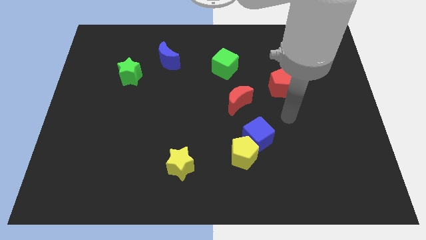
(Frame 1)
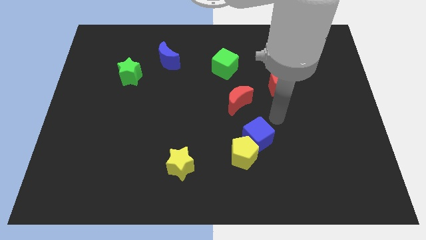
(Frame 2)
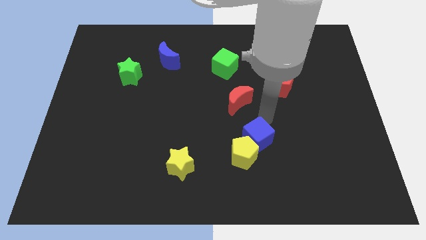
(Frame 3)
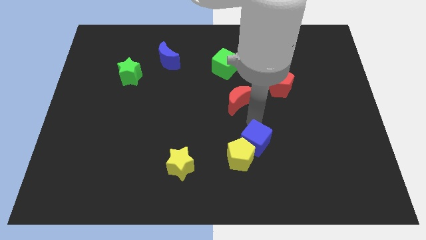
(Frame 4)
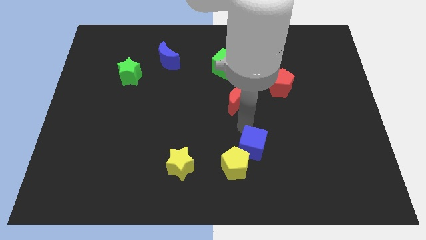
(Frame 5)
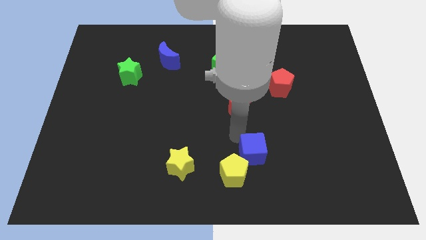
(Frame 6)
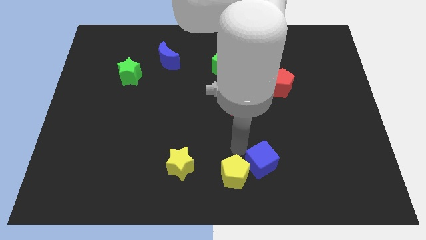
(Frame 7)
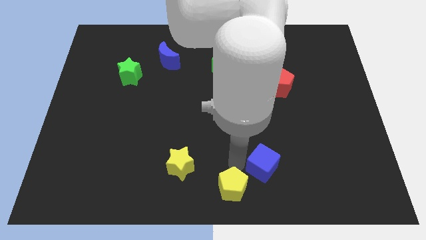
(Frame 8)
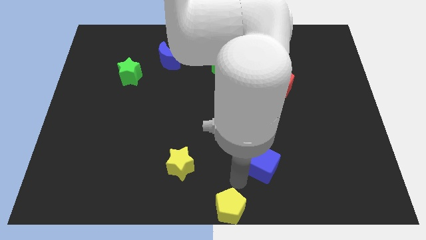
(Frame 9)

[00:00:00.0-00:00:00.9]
move the blue cube away from the yellow pentagon

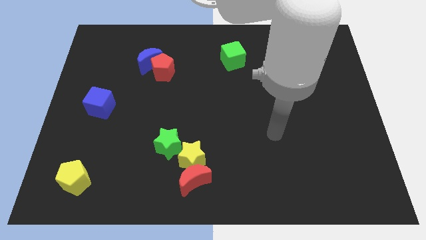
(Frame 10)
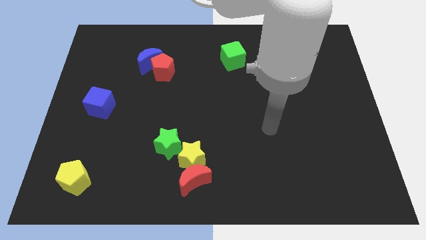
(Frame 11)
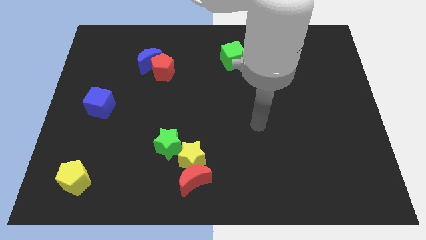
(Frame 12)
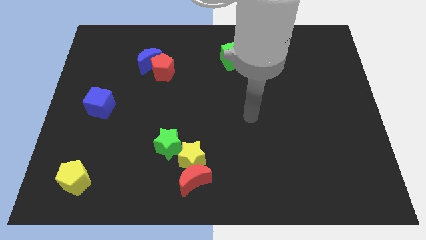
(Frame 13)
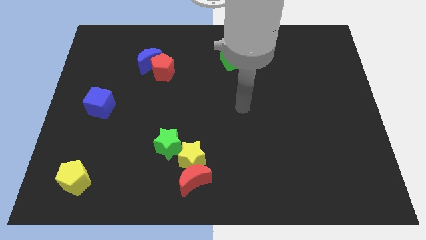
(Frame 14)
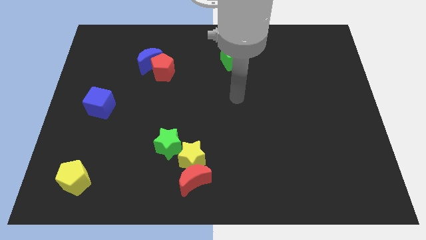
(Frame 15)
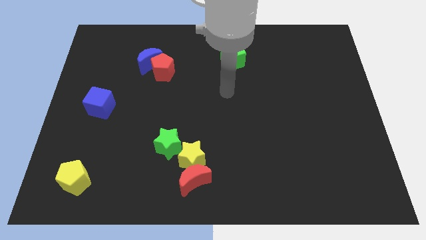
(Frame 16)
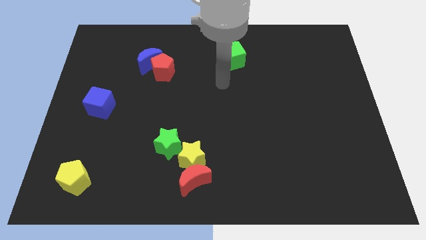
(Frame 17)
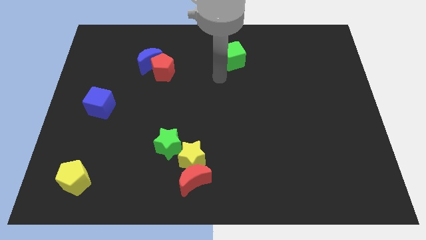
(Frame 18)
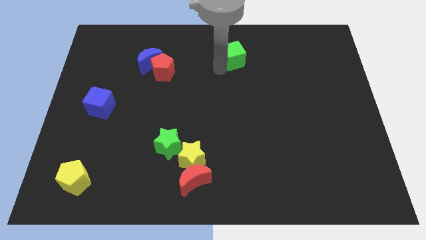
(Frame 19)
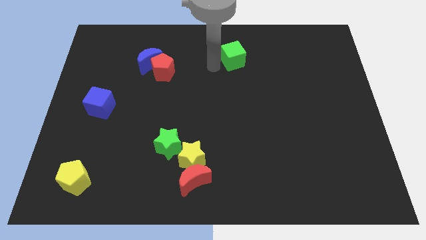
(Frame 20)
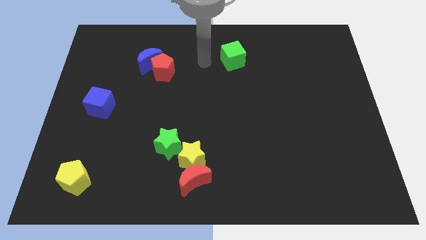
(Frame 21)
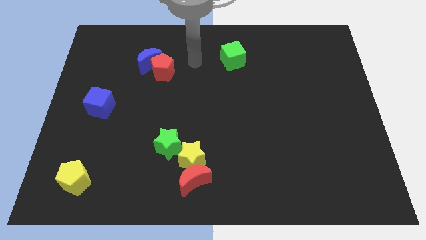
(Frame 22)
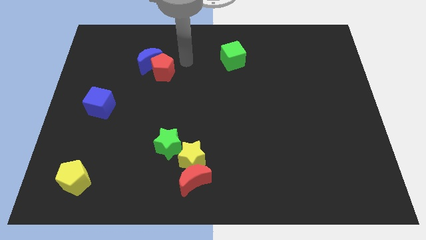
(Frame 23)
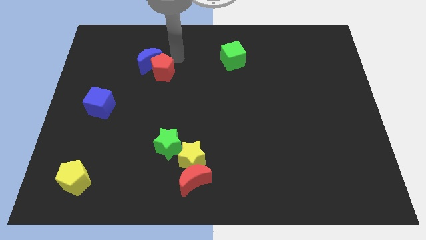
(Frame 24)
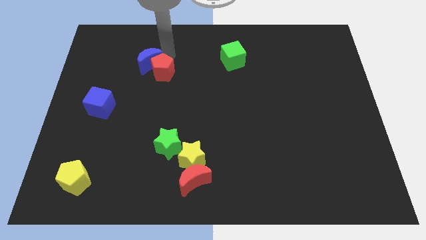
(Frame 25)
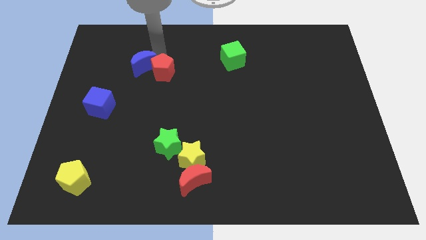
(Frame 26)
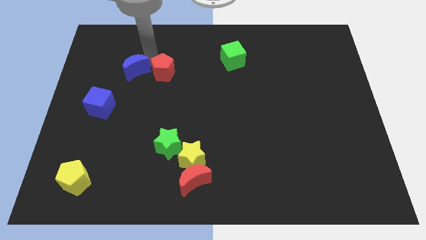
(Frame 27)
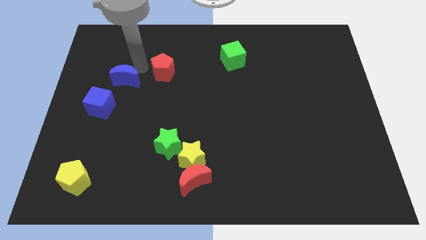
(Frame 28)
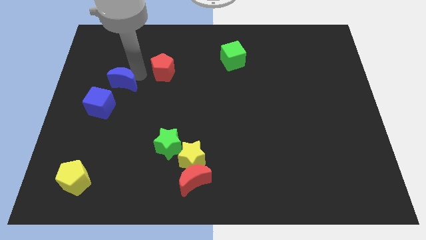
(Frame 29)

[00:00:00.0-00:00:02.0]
pull the red pentagon apart from the blue moon

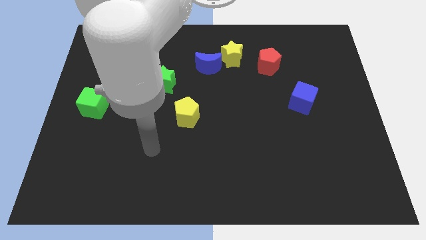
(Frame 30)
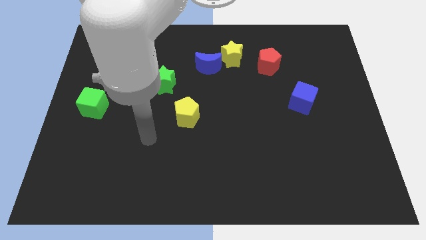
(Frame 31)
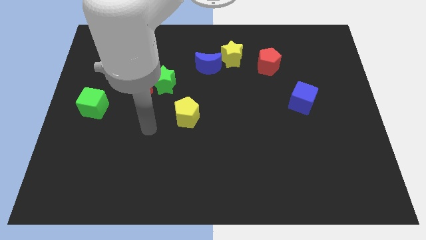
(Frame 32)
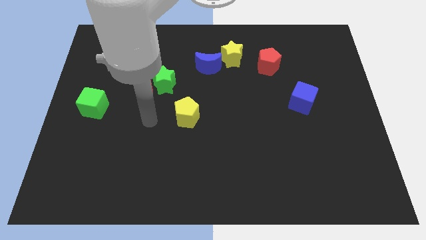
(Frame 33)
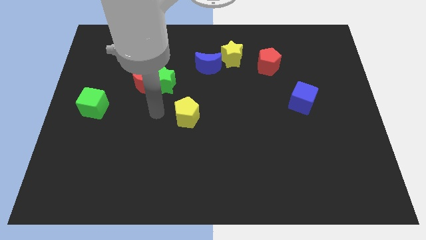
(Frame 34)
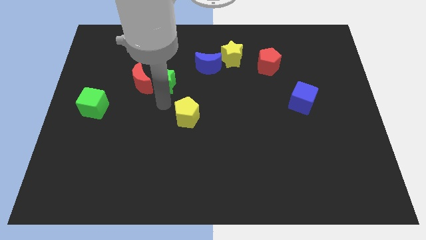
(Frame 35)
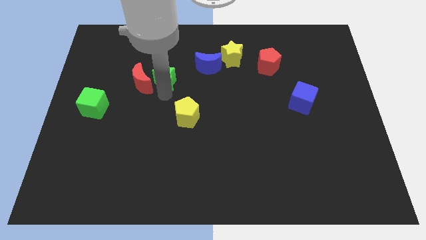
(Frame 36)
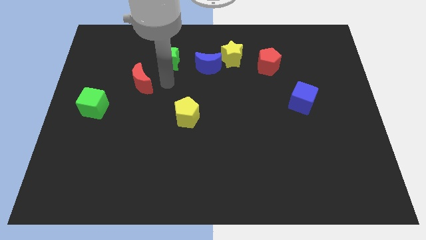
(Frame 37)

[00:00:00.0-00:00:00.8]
move the red moon away from the green star

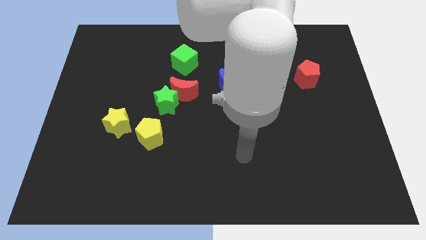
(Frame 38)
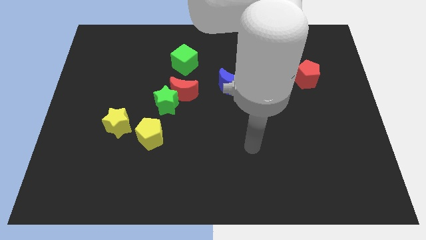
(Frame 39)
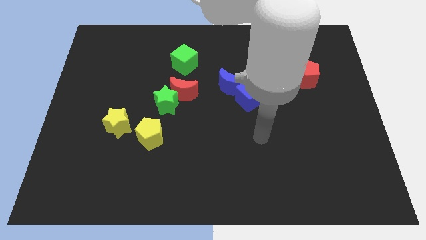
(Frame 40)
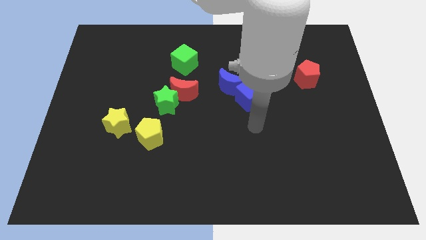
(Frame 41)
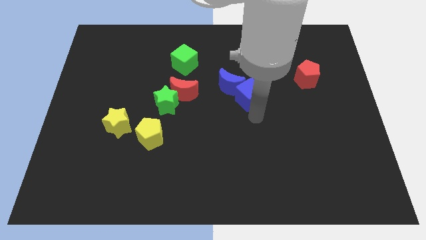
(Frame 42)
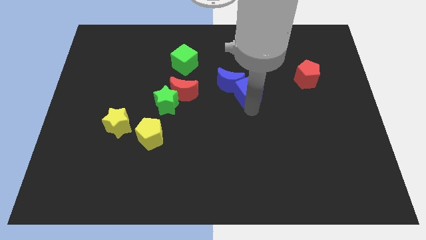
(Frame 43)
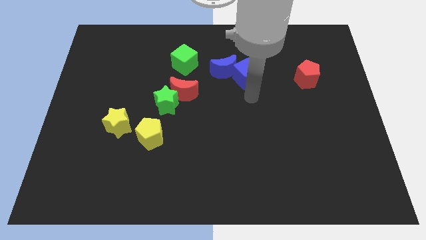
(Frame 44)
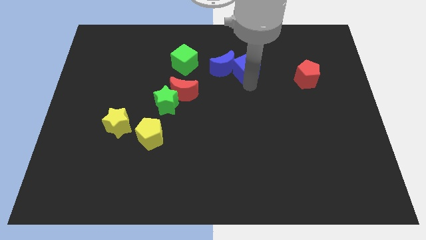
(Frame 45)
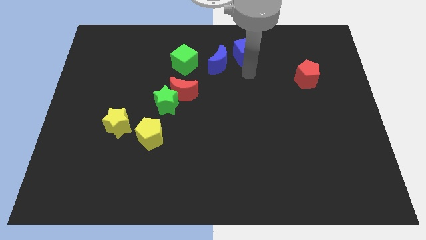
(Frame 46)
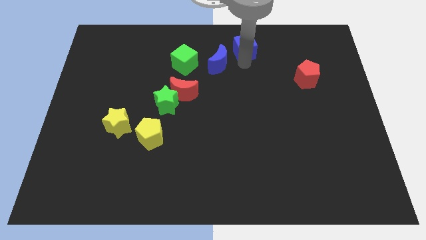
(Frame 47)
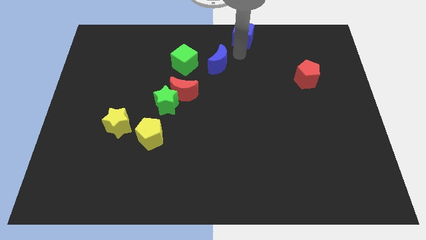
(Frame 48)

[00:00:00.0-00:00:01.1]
separate the blue moon from the blue cube

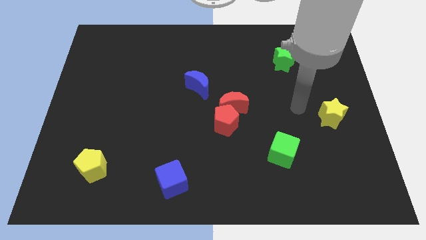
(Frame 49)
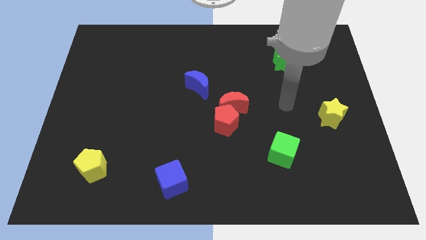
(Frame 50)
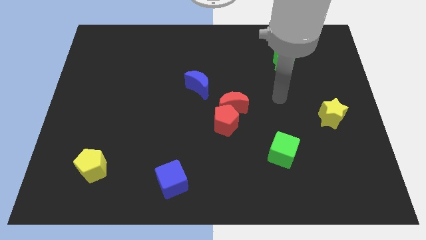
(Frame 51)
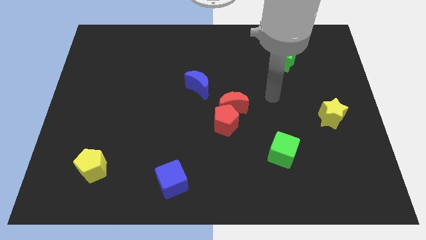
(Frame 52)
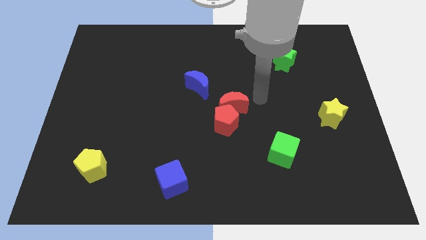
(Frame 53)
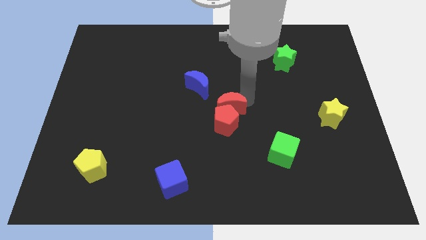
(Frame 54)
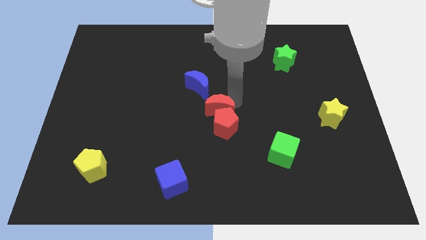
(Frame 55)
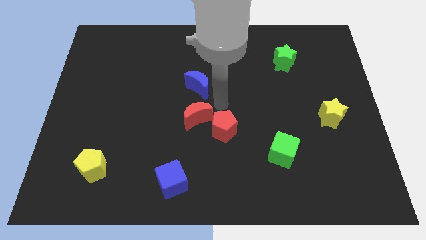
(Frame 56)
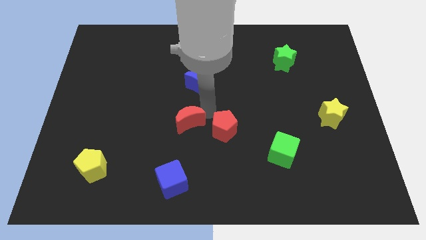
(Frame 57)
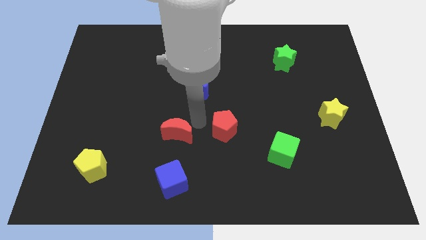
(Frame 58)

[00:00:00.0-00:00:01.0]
pull the red pentagon apart from the red moon

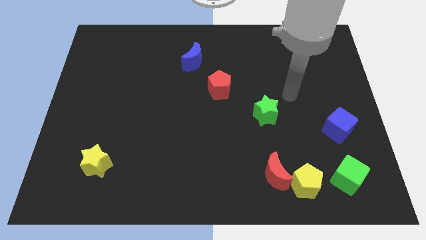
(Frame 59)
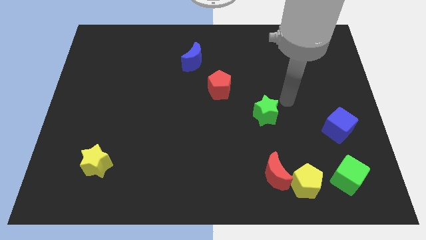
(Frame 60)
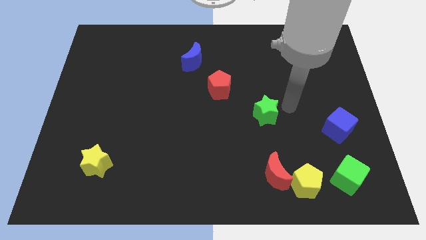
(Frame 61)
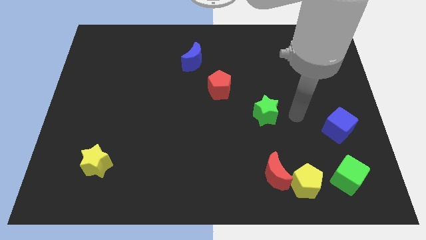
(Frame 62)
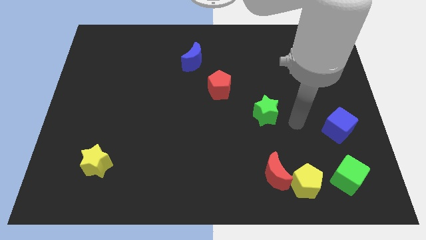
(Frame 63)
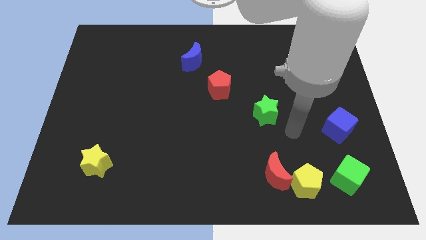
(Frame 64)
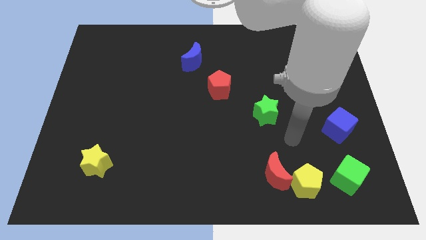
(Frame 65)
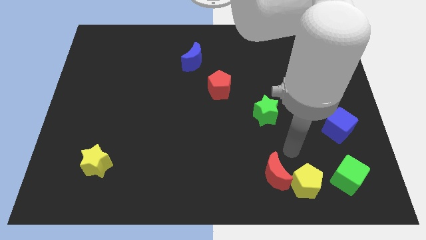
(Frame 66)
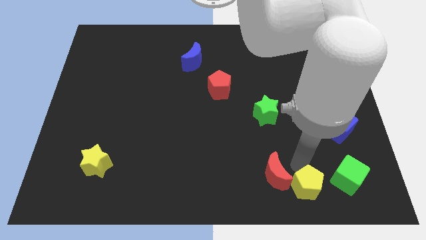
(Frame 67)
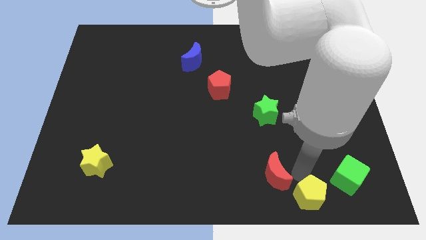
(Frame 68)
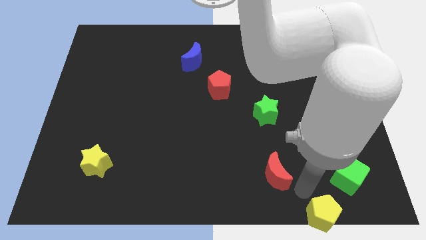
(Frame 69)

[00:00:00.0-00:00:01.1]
separate the red moon from the yellow pentagon

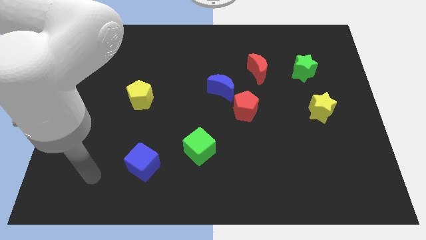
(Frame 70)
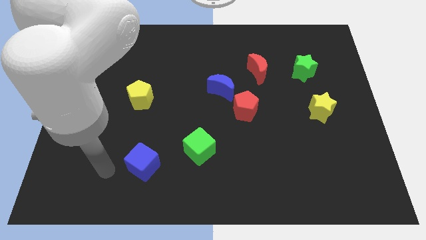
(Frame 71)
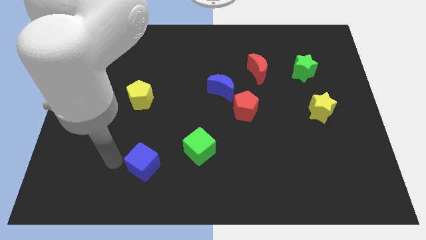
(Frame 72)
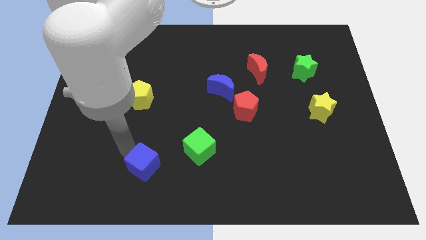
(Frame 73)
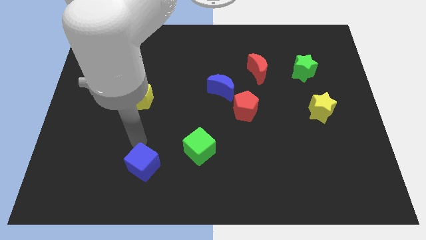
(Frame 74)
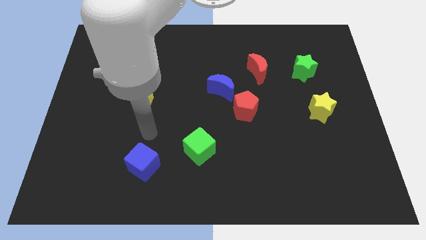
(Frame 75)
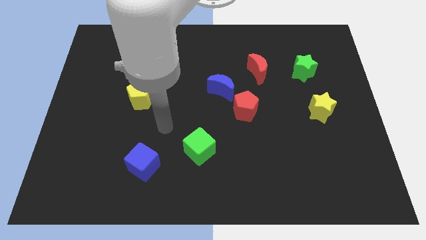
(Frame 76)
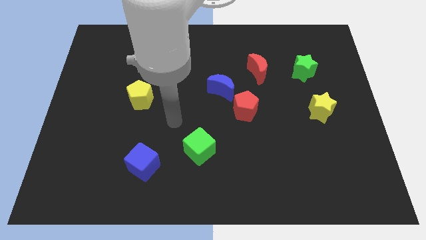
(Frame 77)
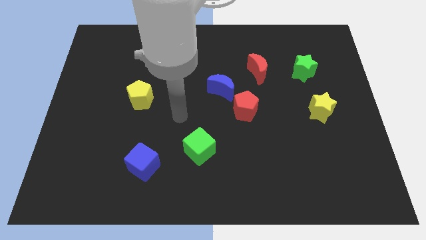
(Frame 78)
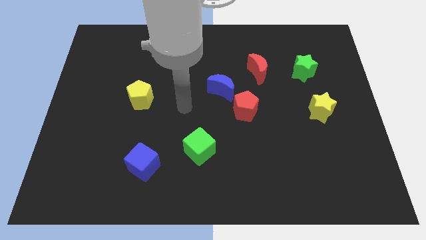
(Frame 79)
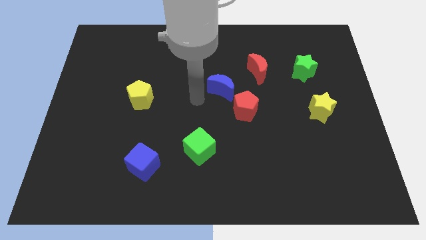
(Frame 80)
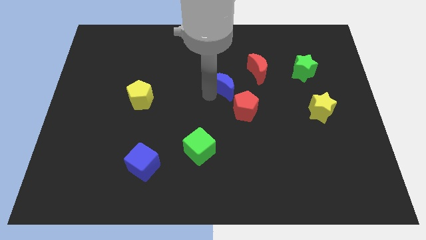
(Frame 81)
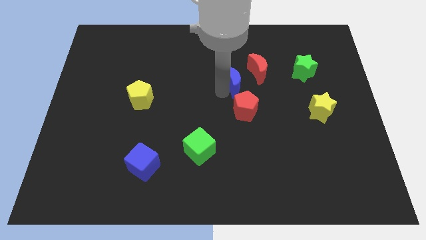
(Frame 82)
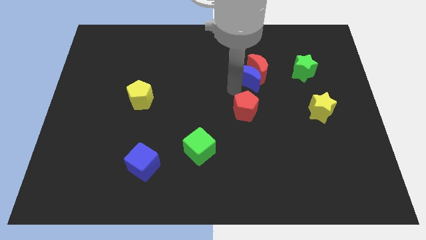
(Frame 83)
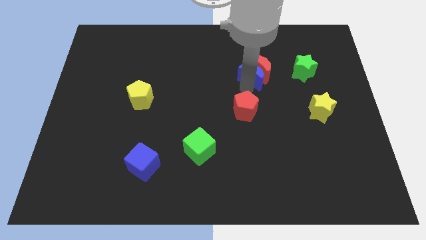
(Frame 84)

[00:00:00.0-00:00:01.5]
move the red pentagon away from the blue moon

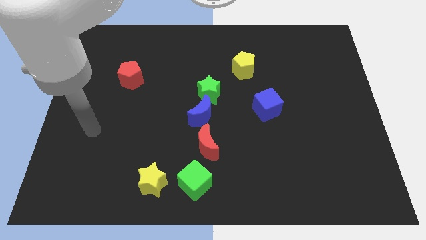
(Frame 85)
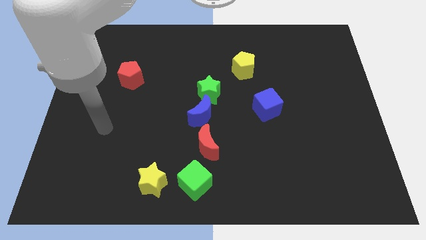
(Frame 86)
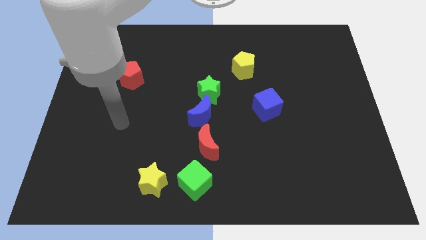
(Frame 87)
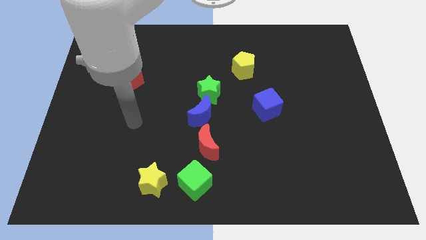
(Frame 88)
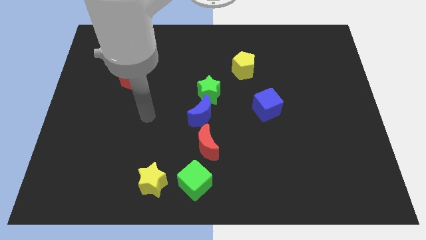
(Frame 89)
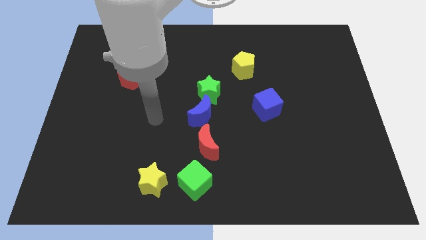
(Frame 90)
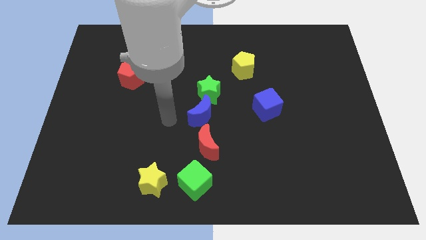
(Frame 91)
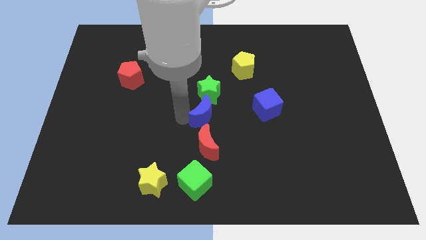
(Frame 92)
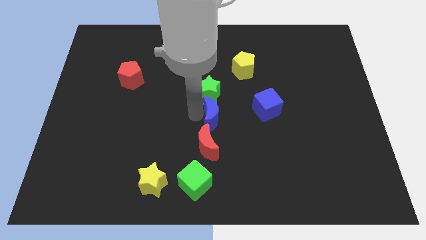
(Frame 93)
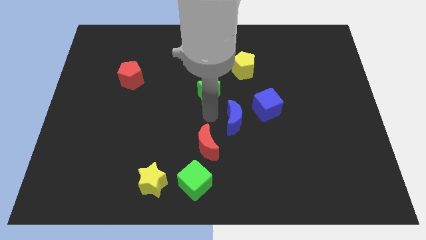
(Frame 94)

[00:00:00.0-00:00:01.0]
pull the green star apart from the blue moon
